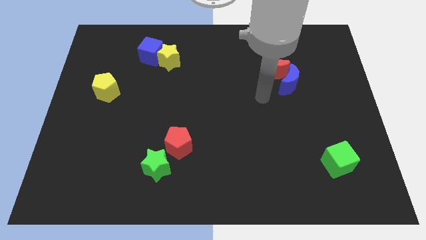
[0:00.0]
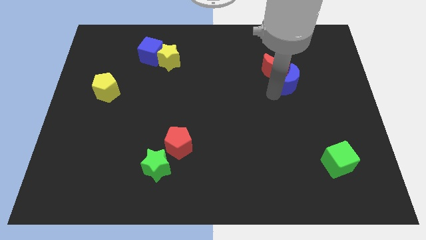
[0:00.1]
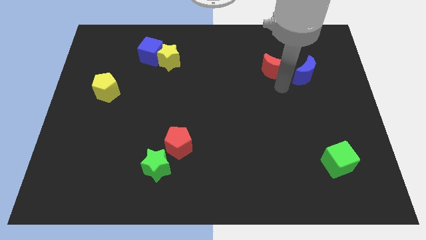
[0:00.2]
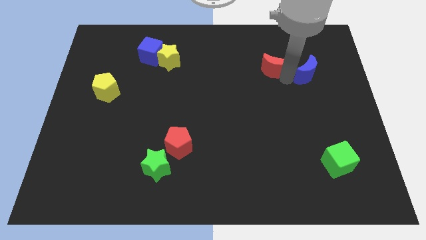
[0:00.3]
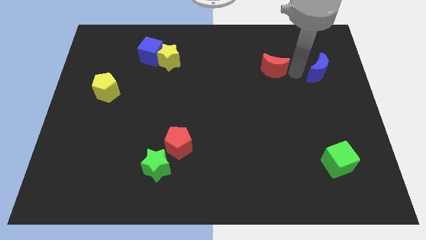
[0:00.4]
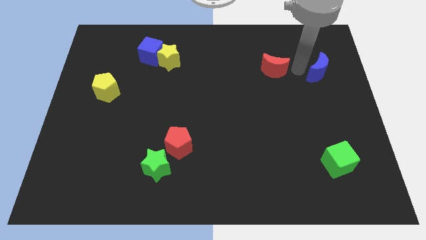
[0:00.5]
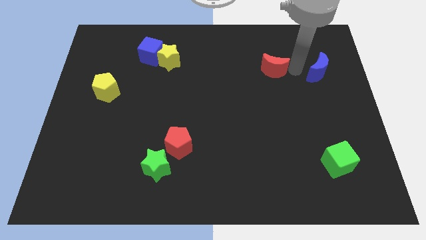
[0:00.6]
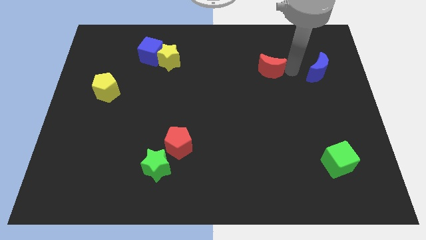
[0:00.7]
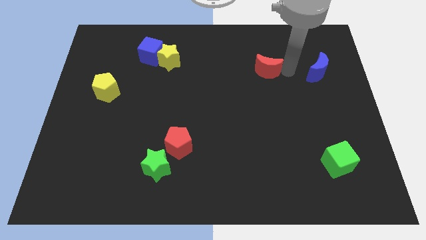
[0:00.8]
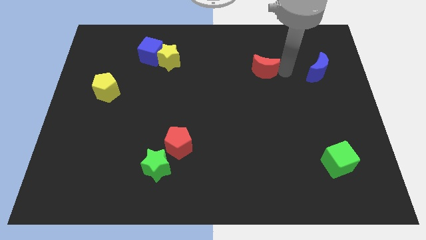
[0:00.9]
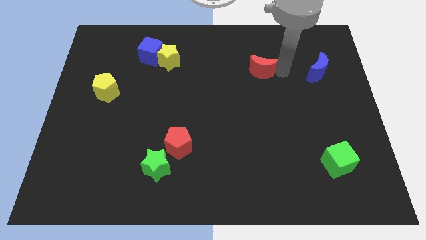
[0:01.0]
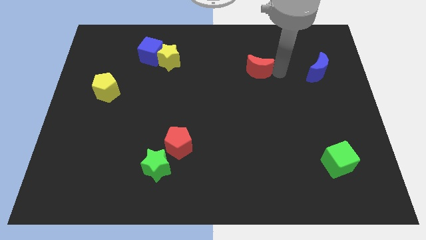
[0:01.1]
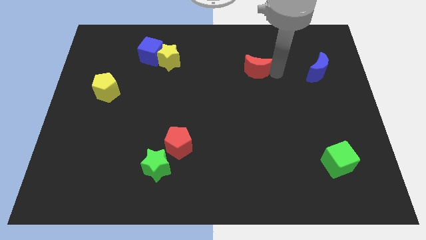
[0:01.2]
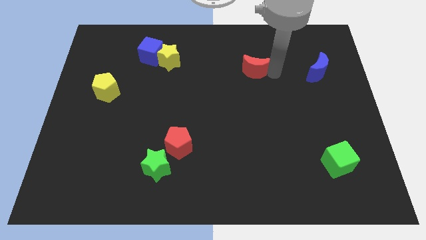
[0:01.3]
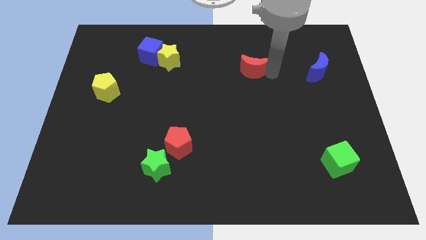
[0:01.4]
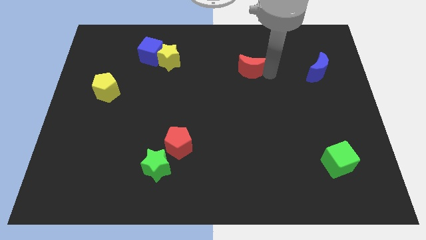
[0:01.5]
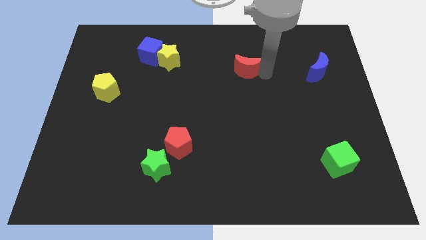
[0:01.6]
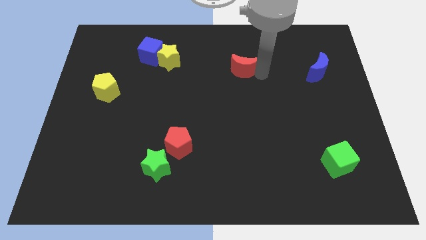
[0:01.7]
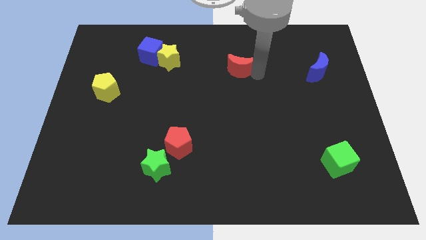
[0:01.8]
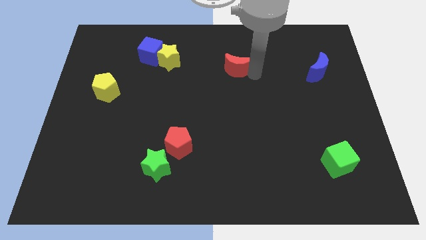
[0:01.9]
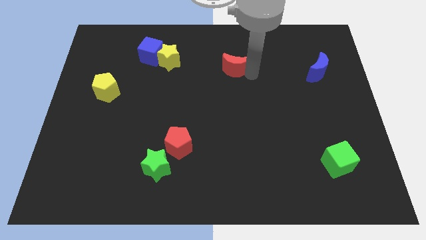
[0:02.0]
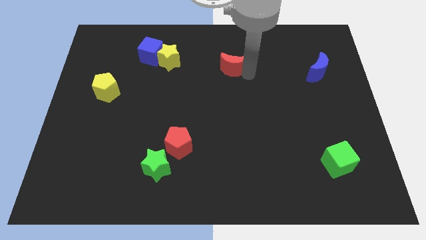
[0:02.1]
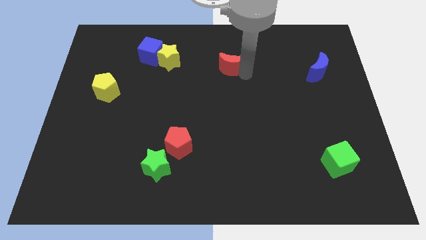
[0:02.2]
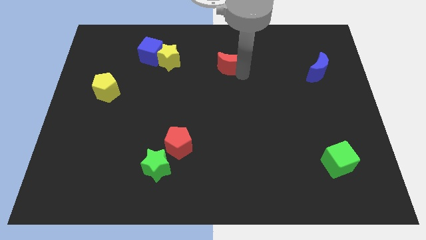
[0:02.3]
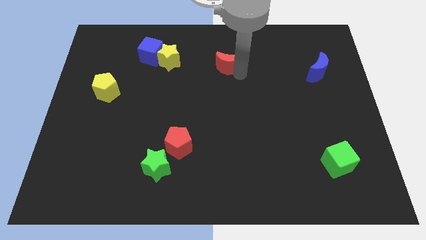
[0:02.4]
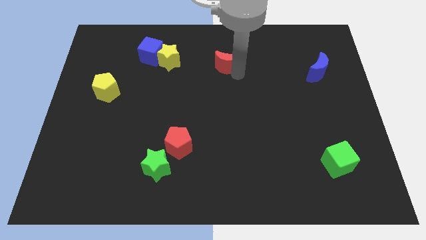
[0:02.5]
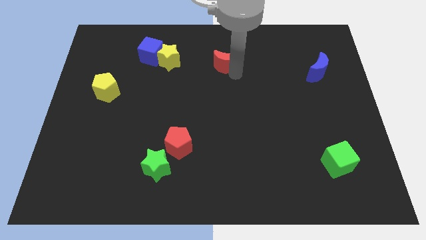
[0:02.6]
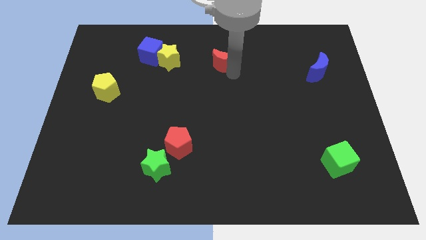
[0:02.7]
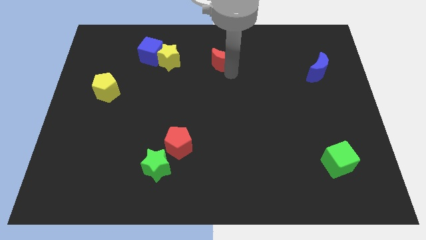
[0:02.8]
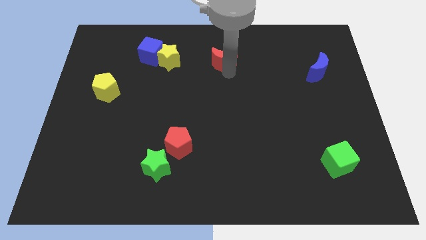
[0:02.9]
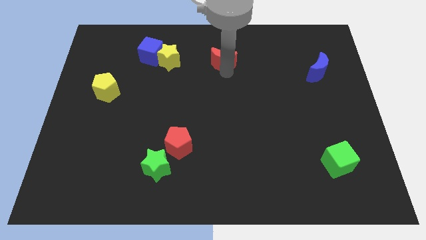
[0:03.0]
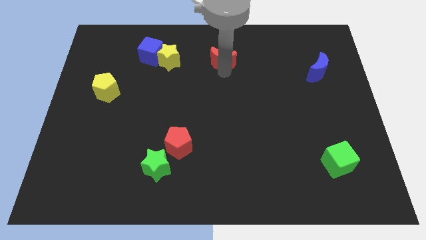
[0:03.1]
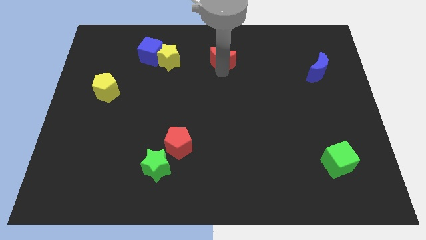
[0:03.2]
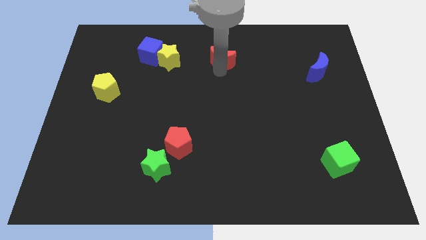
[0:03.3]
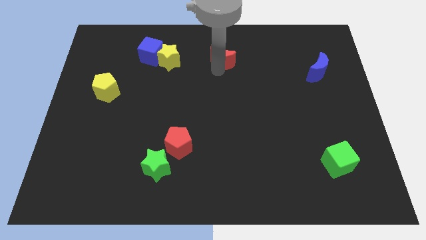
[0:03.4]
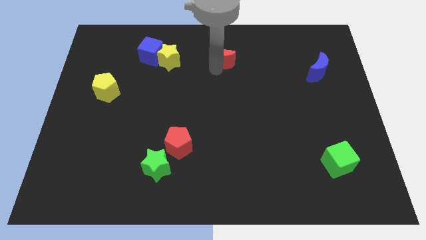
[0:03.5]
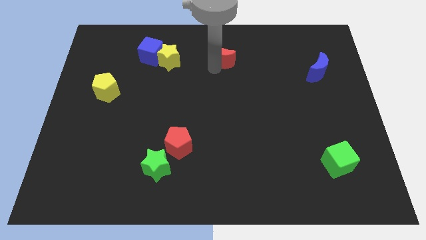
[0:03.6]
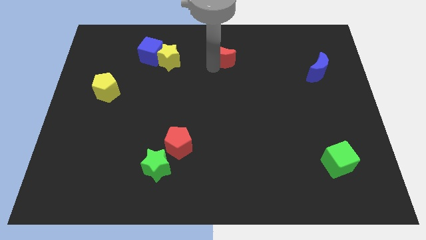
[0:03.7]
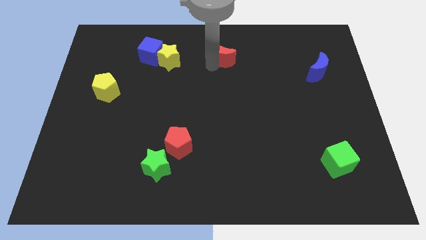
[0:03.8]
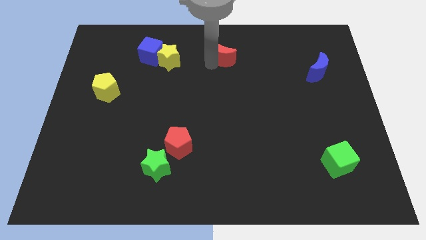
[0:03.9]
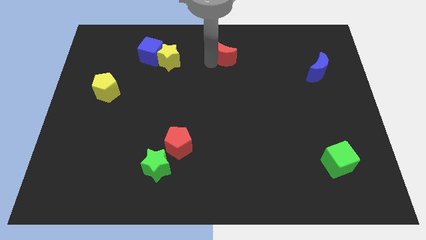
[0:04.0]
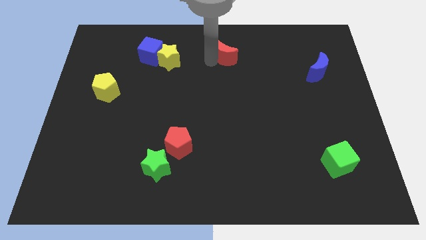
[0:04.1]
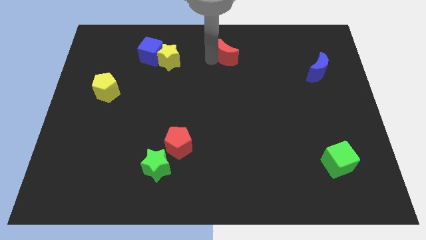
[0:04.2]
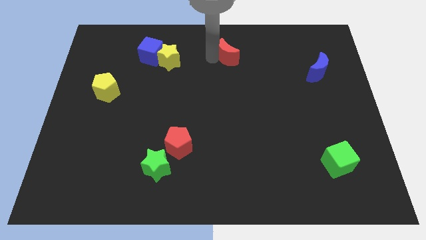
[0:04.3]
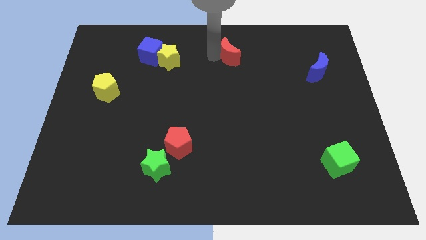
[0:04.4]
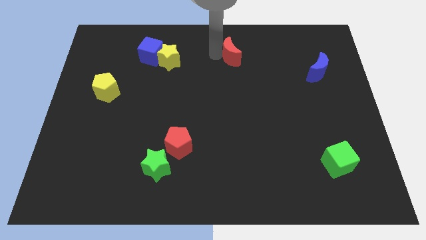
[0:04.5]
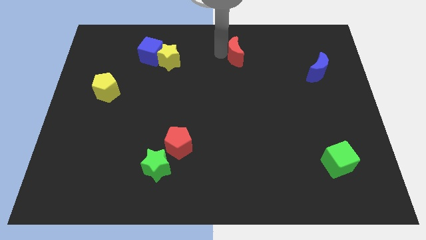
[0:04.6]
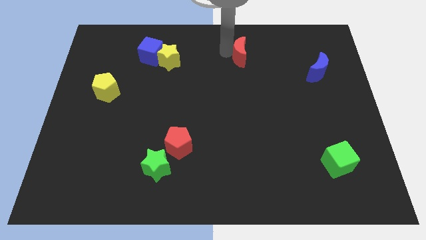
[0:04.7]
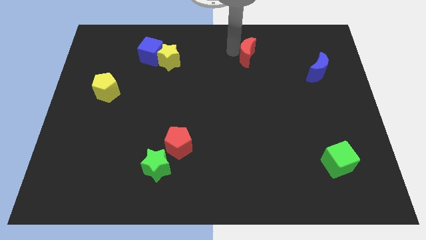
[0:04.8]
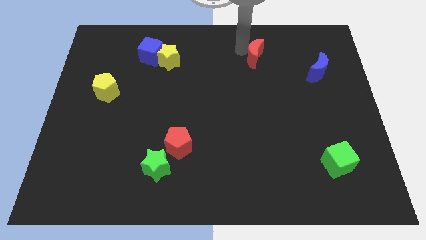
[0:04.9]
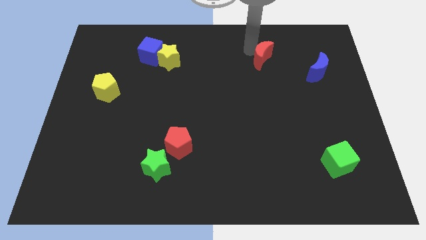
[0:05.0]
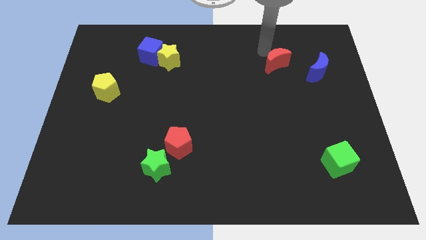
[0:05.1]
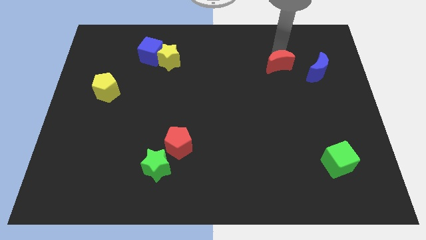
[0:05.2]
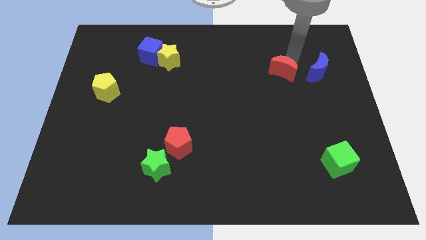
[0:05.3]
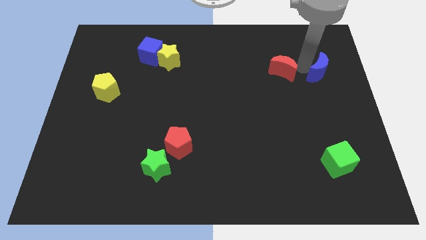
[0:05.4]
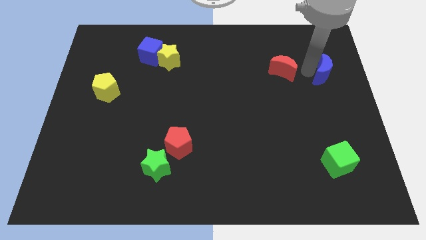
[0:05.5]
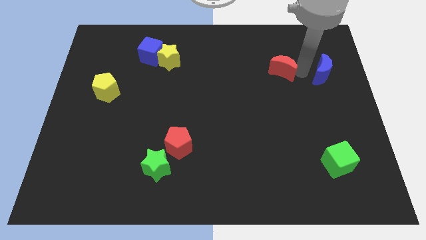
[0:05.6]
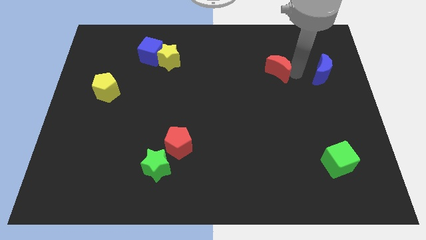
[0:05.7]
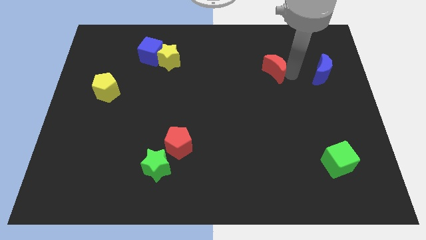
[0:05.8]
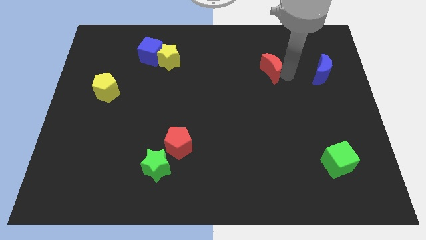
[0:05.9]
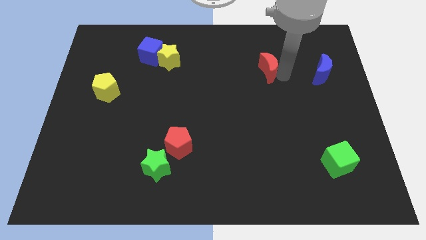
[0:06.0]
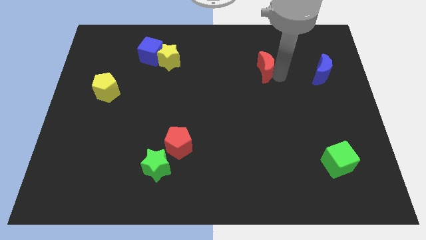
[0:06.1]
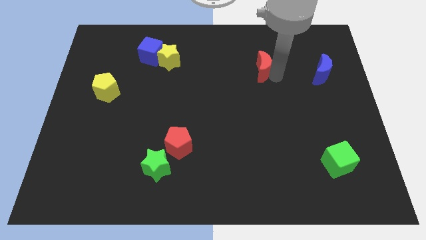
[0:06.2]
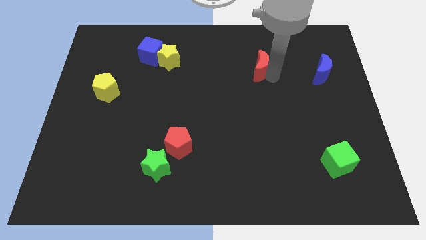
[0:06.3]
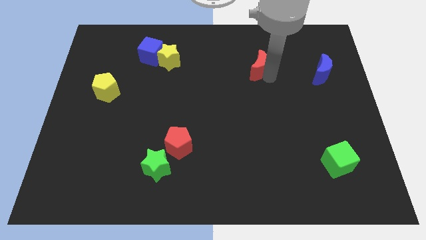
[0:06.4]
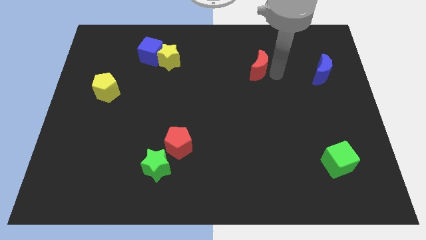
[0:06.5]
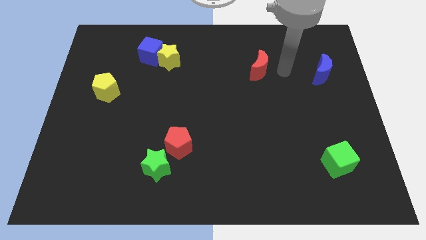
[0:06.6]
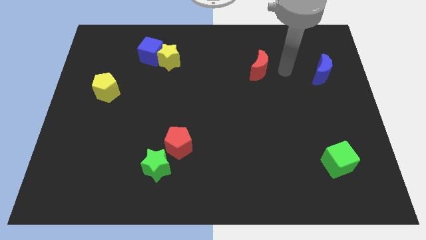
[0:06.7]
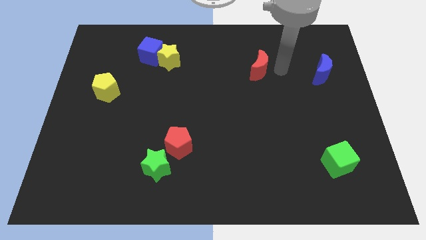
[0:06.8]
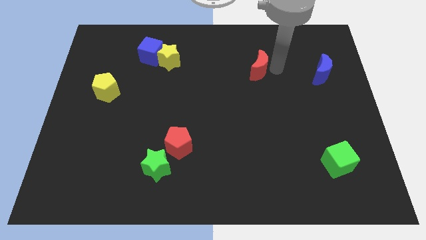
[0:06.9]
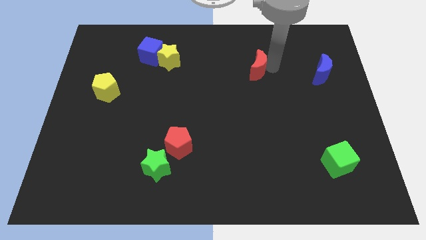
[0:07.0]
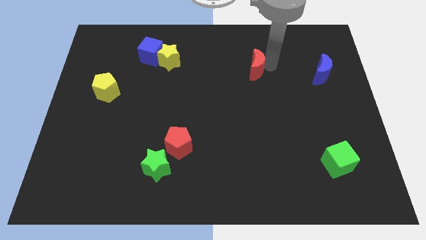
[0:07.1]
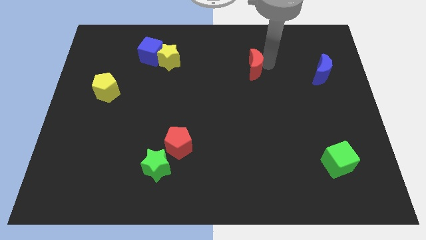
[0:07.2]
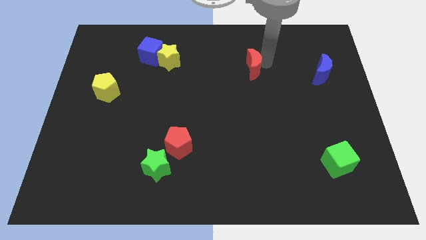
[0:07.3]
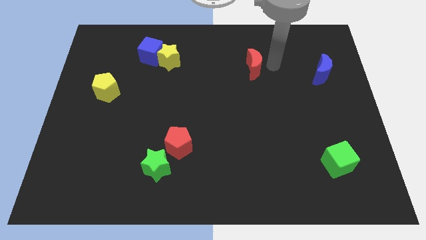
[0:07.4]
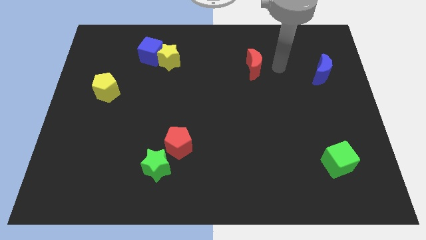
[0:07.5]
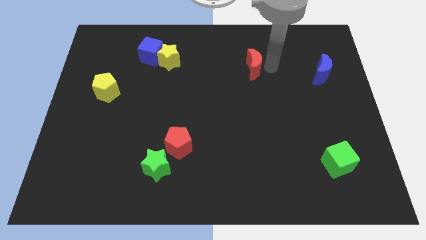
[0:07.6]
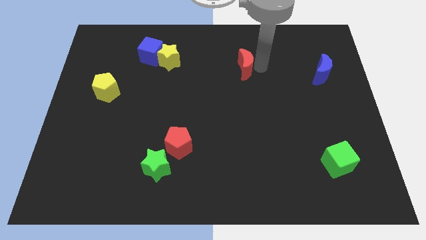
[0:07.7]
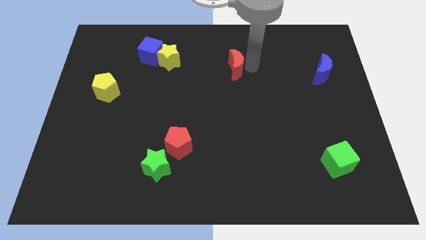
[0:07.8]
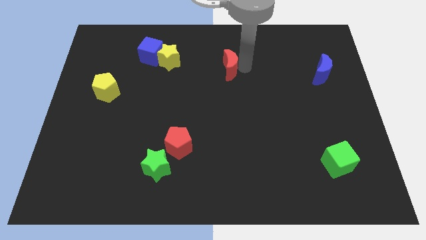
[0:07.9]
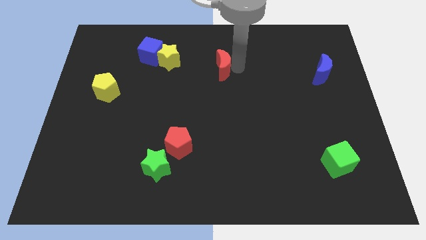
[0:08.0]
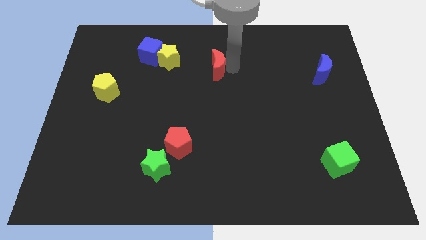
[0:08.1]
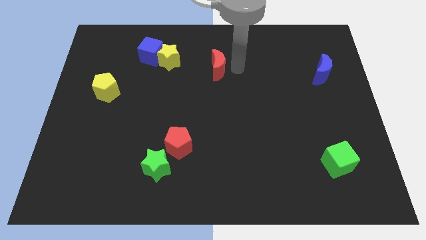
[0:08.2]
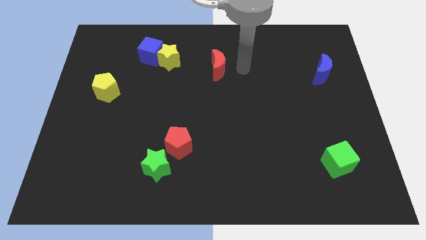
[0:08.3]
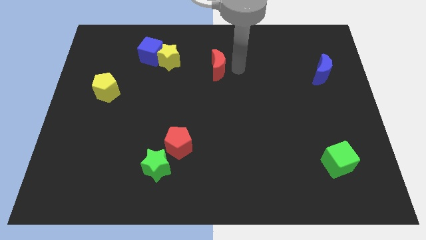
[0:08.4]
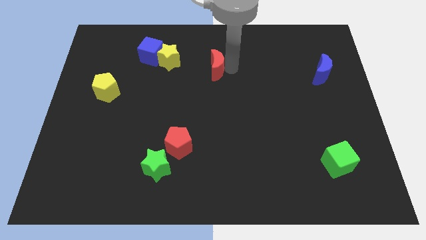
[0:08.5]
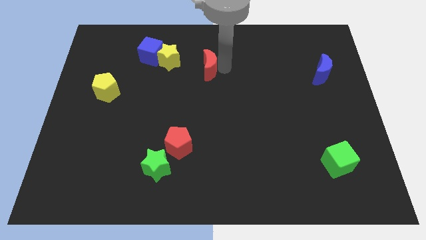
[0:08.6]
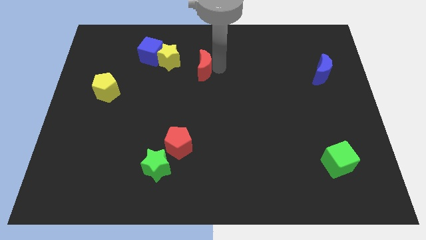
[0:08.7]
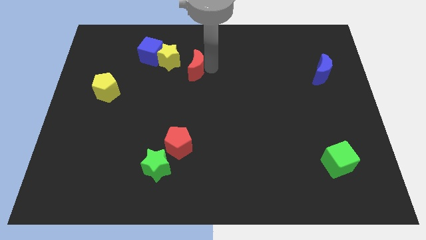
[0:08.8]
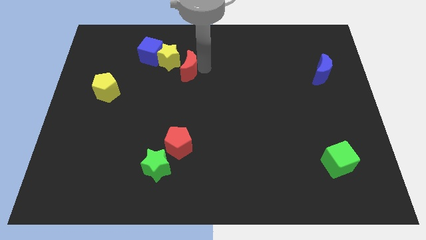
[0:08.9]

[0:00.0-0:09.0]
slide the red moon left
